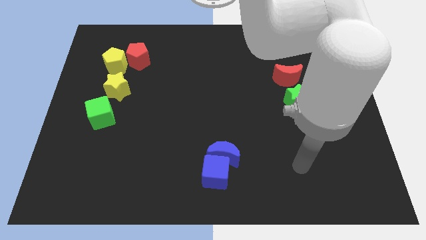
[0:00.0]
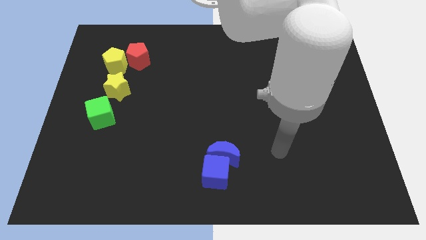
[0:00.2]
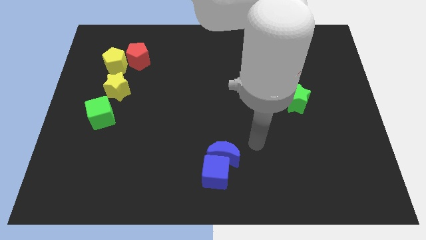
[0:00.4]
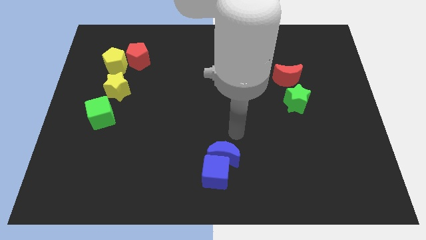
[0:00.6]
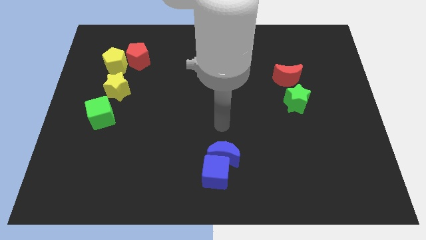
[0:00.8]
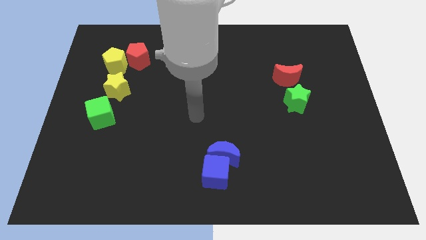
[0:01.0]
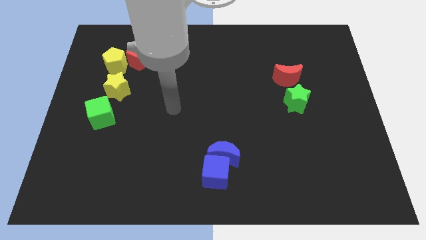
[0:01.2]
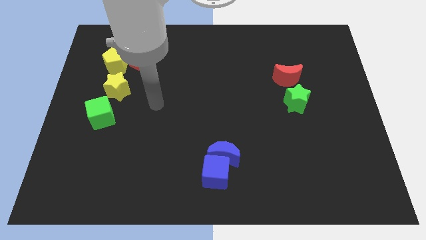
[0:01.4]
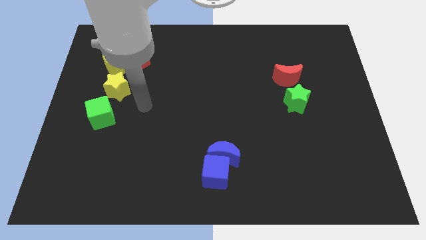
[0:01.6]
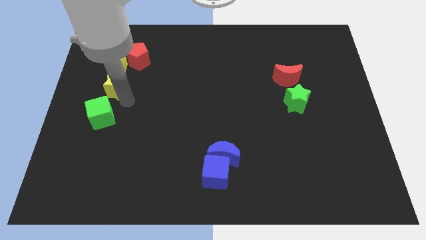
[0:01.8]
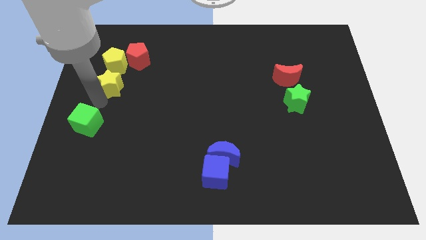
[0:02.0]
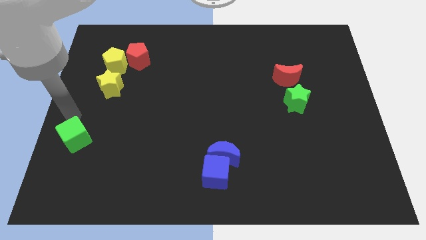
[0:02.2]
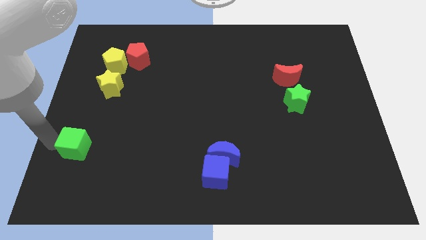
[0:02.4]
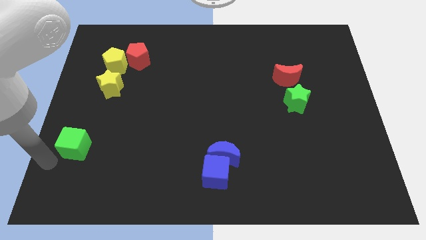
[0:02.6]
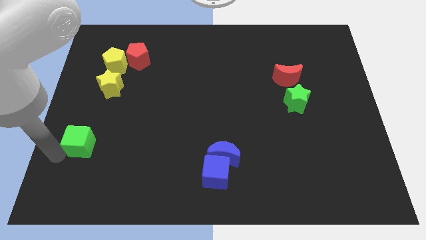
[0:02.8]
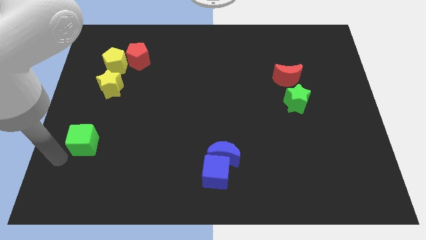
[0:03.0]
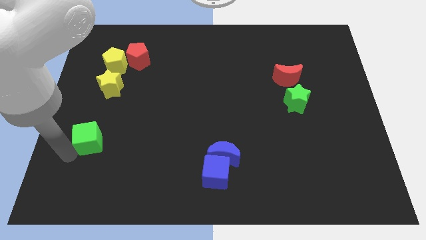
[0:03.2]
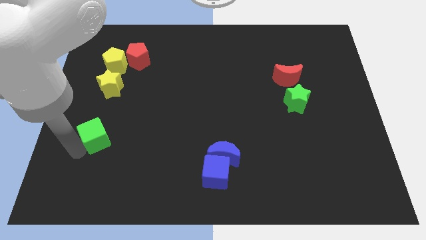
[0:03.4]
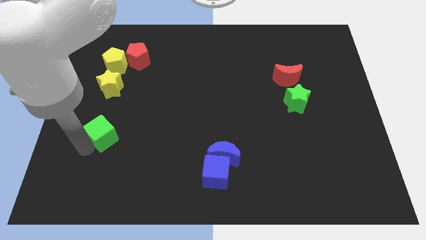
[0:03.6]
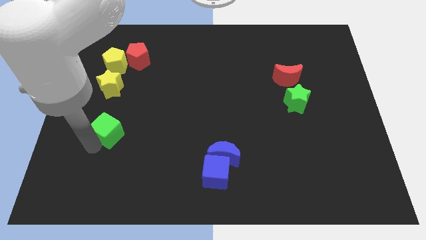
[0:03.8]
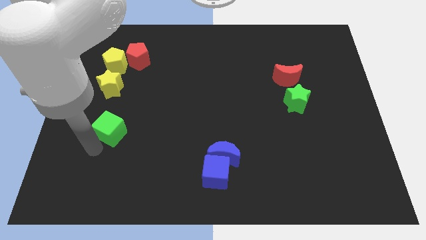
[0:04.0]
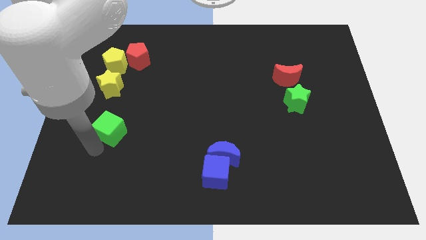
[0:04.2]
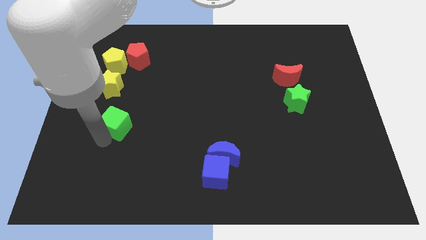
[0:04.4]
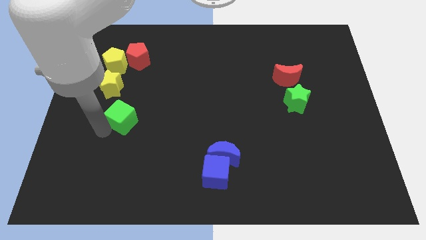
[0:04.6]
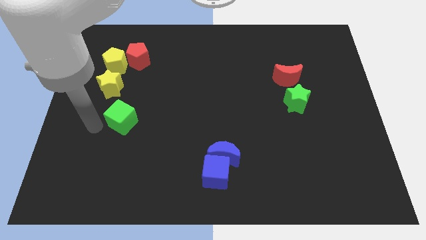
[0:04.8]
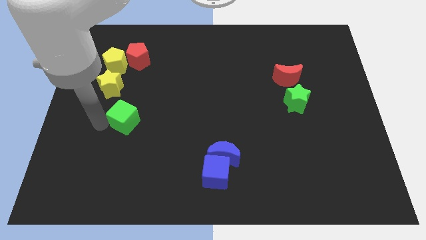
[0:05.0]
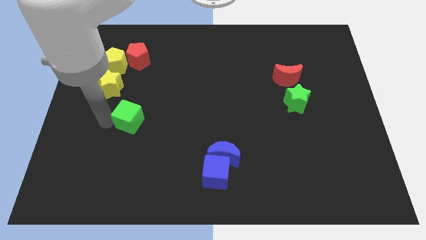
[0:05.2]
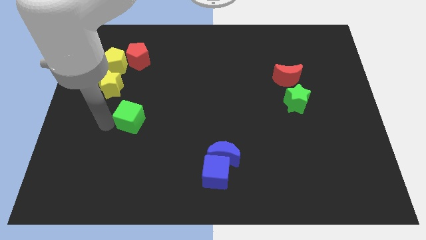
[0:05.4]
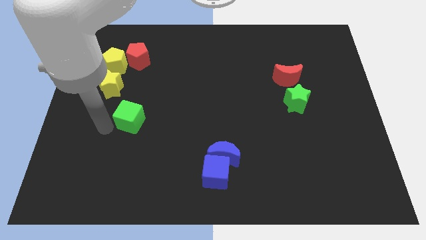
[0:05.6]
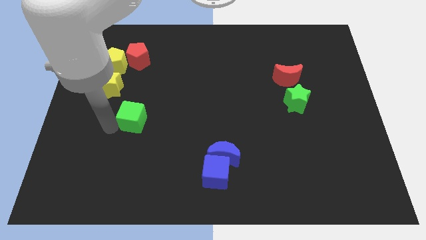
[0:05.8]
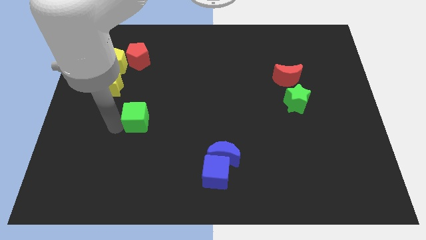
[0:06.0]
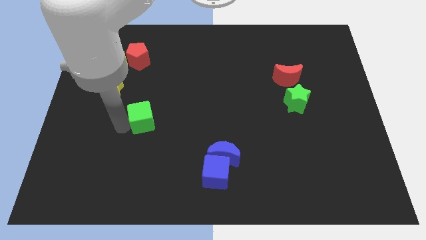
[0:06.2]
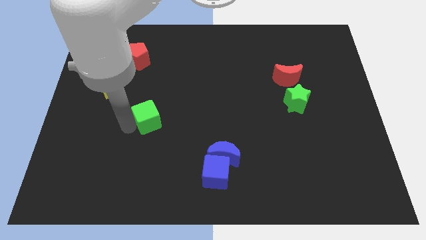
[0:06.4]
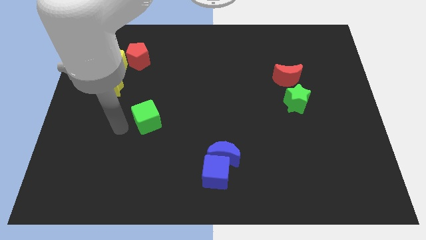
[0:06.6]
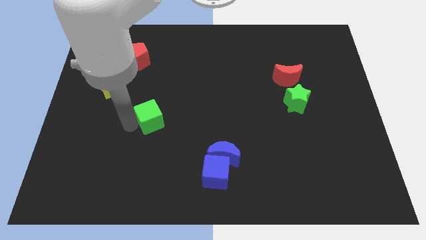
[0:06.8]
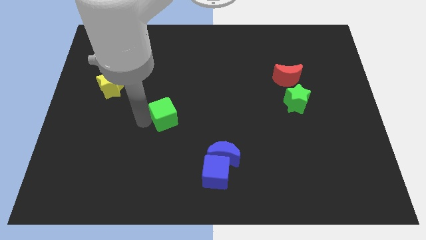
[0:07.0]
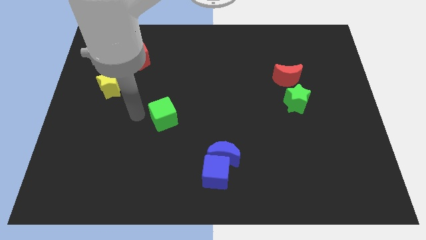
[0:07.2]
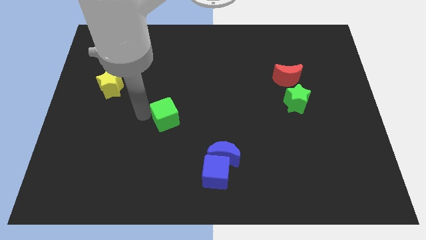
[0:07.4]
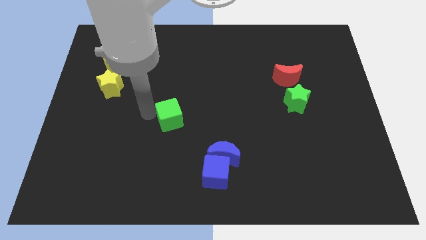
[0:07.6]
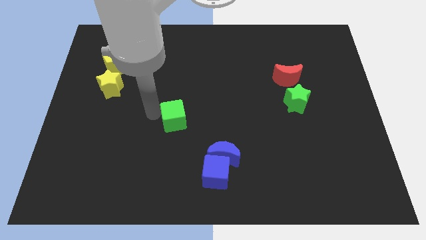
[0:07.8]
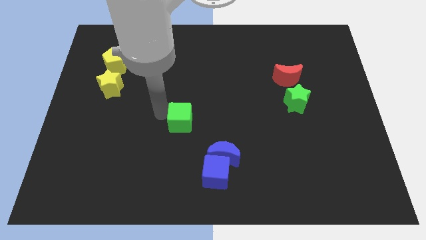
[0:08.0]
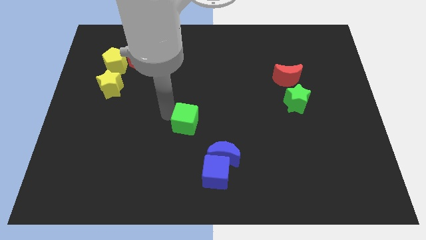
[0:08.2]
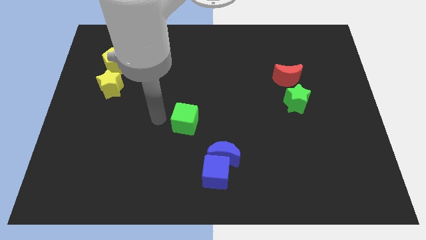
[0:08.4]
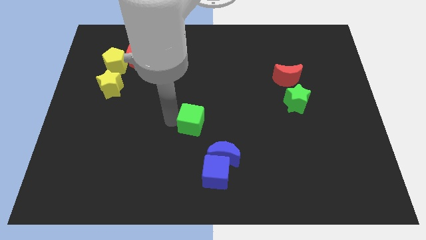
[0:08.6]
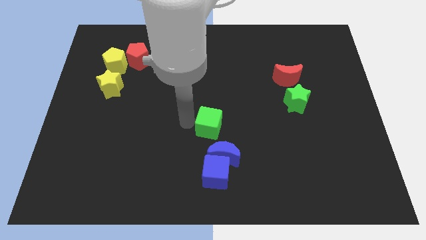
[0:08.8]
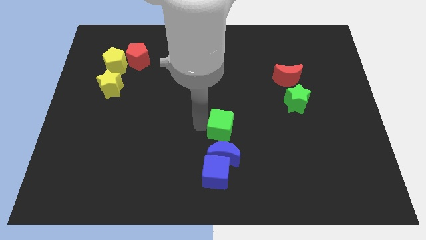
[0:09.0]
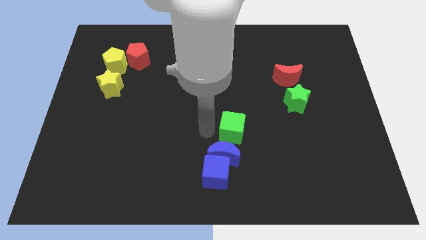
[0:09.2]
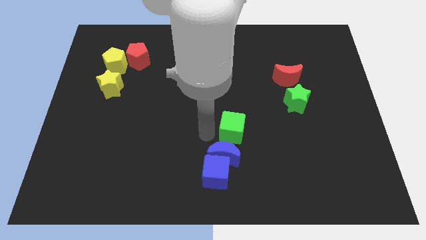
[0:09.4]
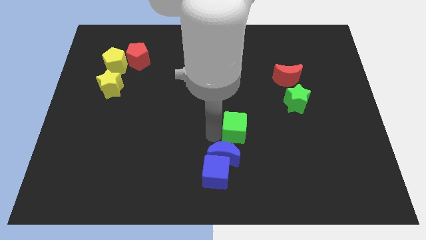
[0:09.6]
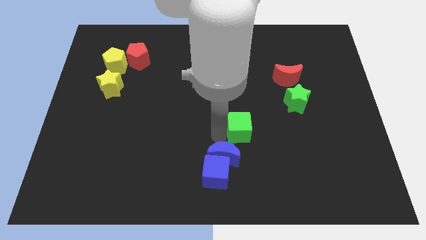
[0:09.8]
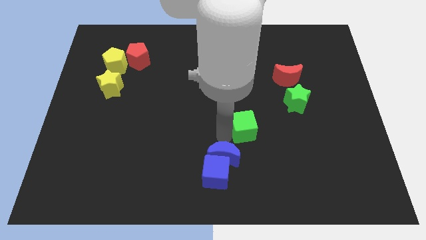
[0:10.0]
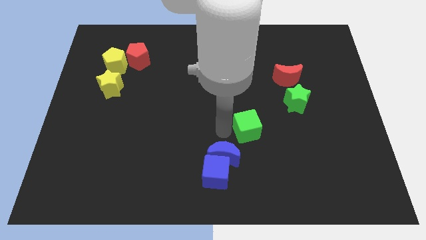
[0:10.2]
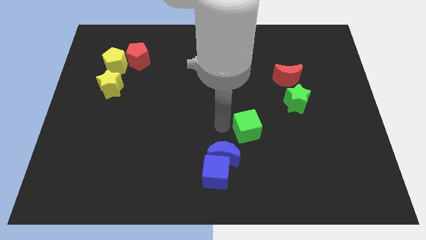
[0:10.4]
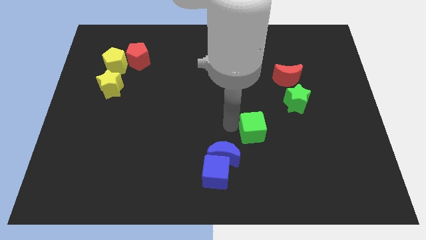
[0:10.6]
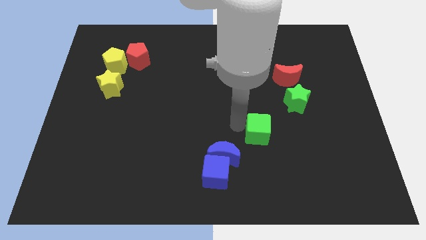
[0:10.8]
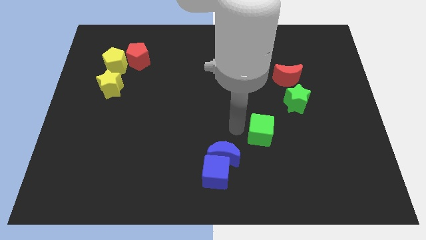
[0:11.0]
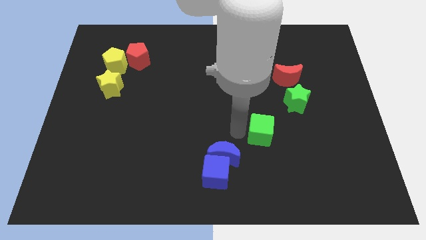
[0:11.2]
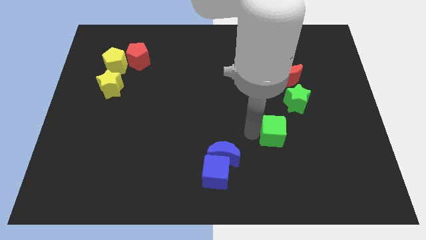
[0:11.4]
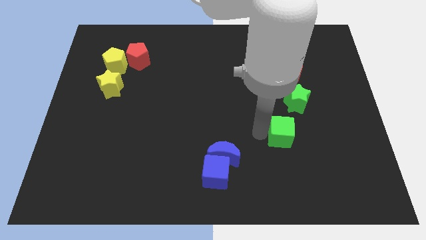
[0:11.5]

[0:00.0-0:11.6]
slide the green cube to the bottom of the green star

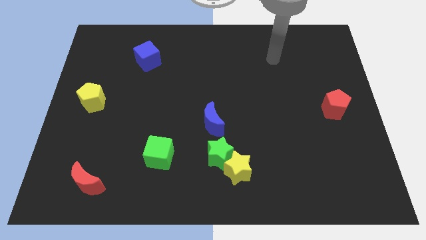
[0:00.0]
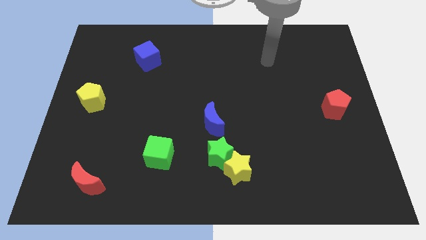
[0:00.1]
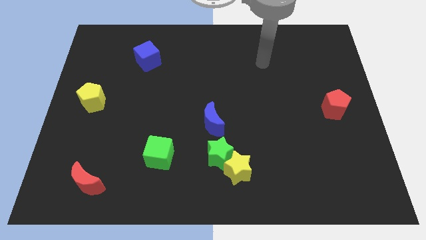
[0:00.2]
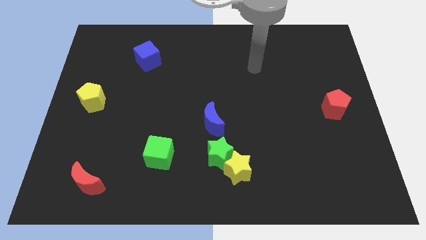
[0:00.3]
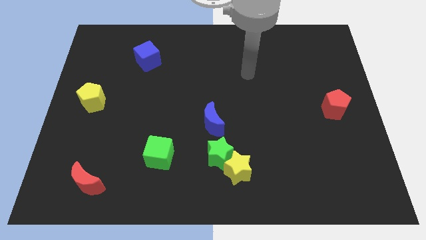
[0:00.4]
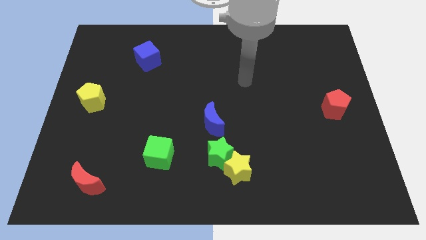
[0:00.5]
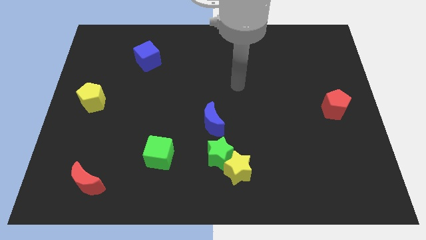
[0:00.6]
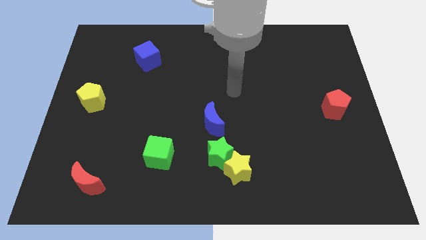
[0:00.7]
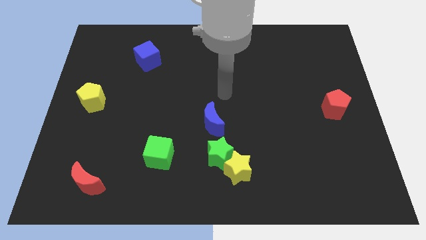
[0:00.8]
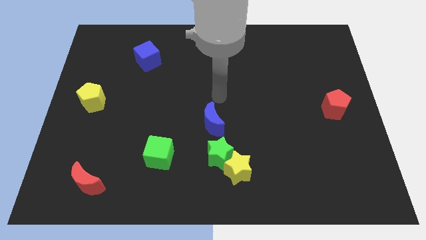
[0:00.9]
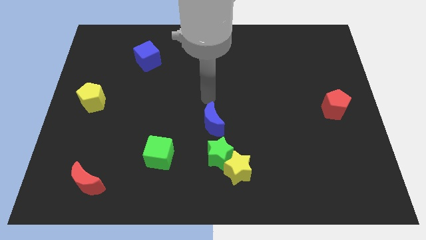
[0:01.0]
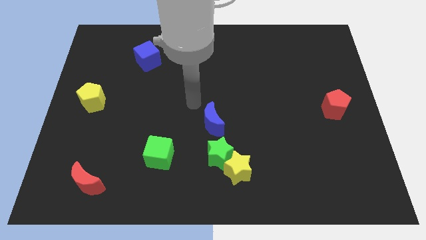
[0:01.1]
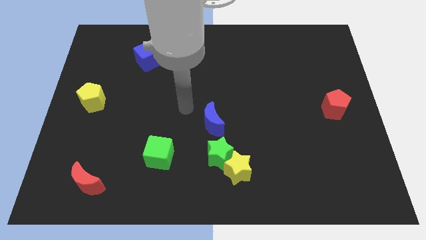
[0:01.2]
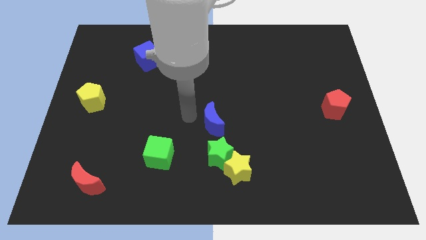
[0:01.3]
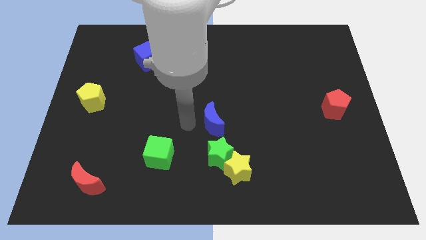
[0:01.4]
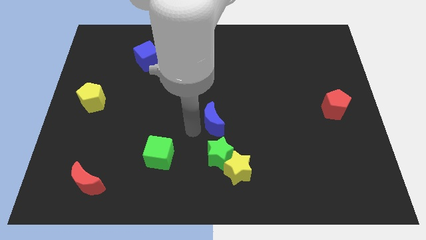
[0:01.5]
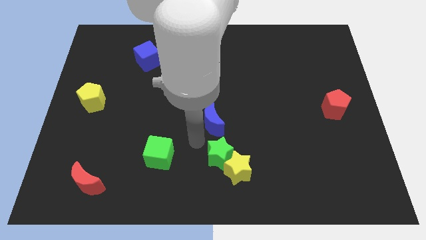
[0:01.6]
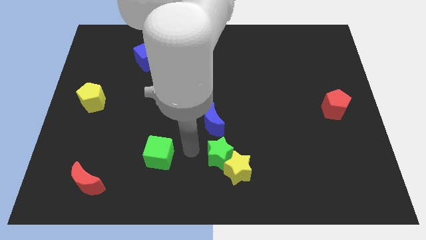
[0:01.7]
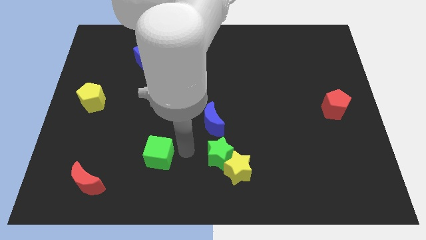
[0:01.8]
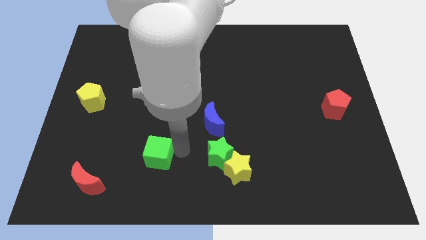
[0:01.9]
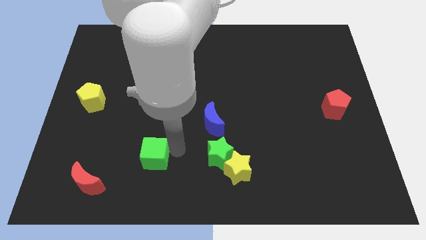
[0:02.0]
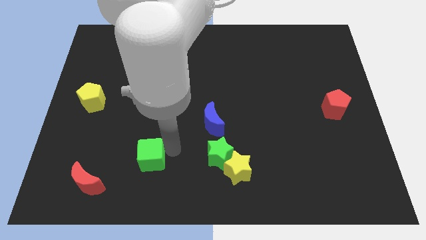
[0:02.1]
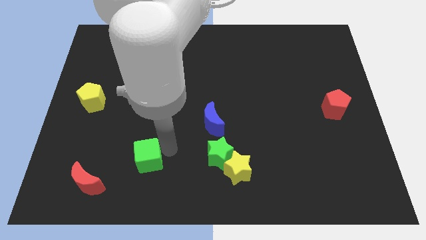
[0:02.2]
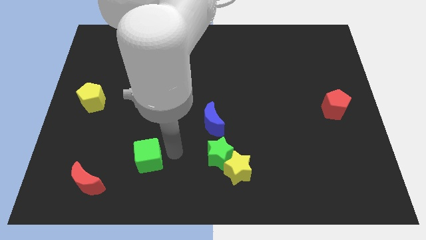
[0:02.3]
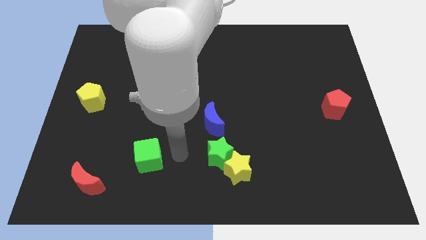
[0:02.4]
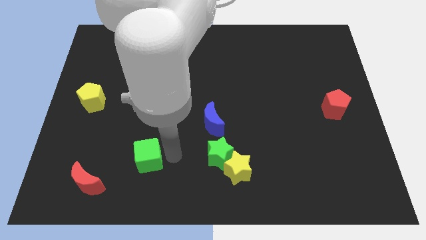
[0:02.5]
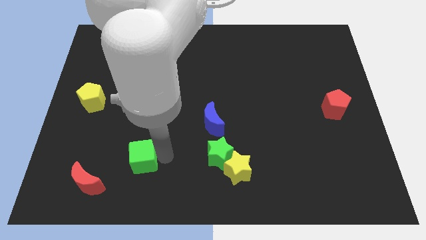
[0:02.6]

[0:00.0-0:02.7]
push the green cube to the top right of the red moon
